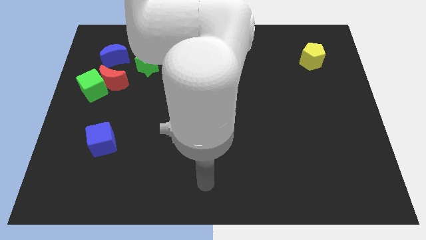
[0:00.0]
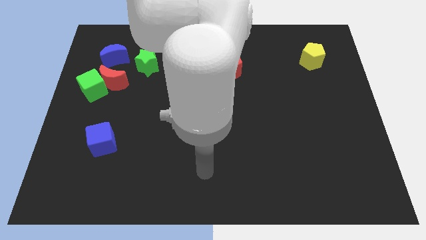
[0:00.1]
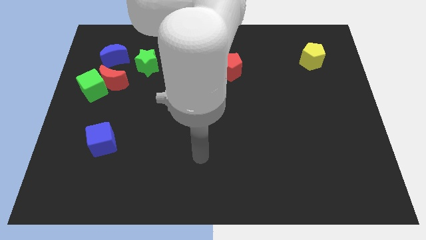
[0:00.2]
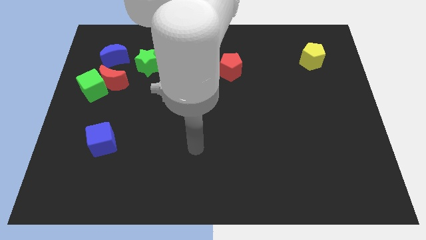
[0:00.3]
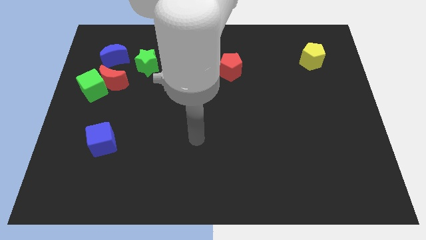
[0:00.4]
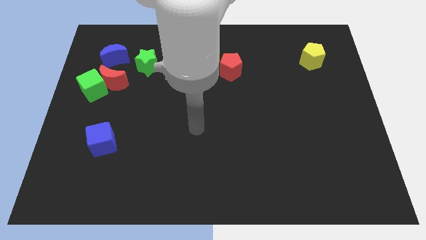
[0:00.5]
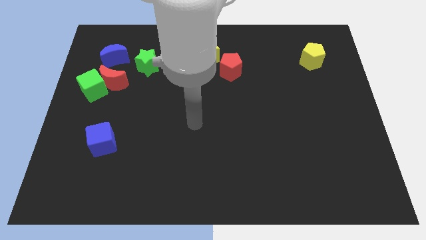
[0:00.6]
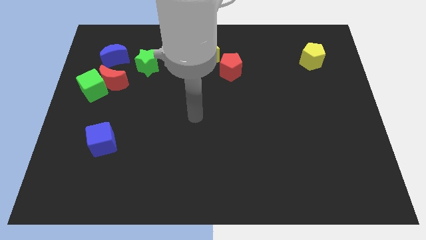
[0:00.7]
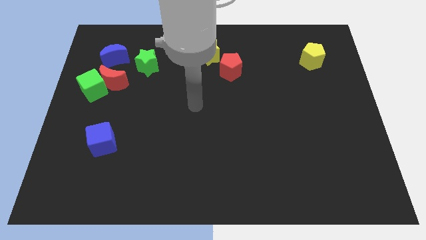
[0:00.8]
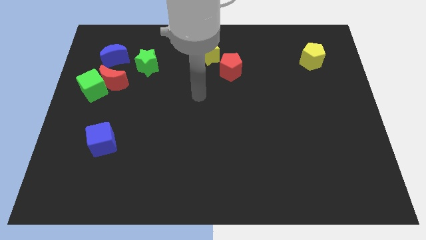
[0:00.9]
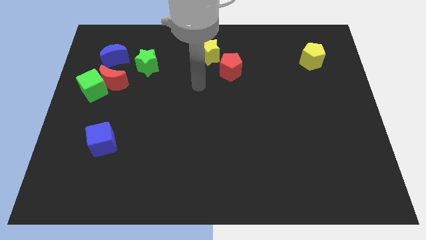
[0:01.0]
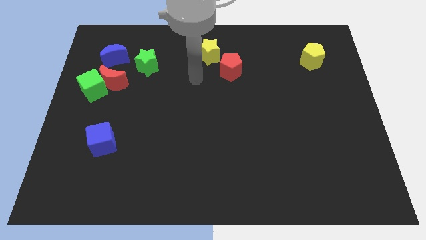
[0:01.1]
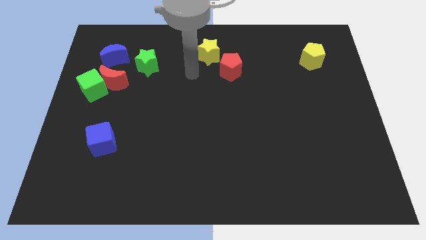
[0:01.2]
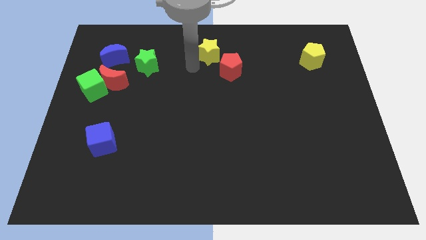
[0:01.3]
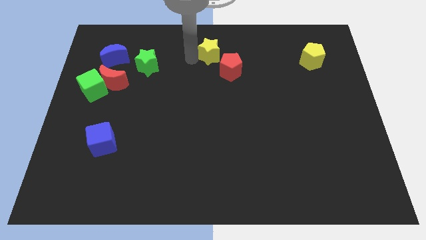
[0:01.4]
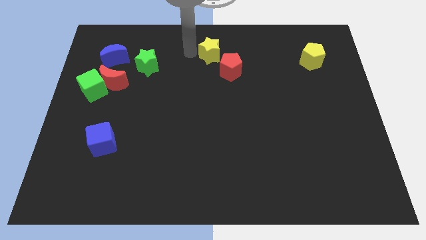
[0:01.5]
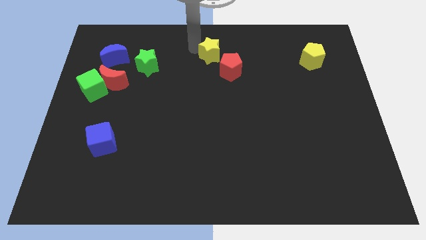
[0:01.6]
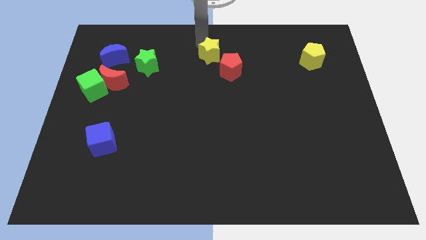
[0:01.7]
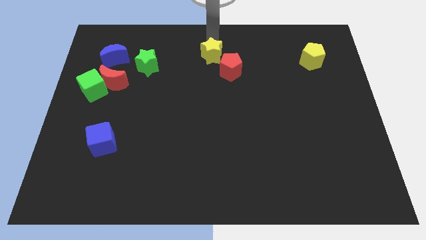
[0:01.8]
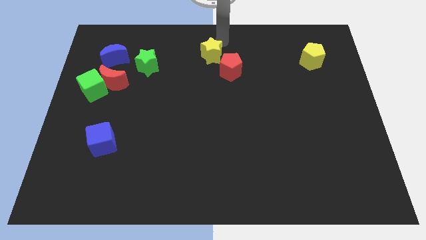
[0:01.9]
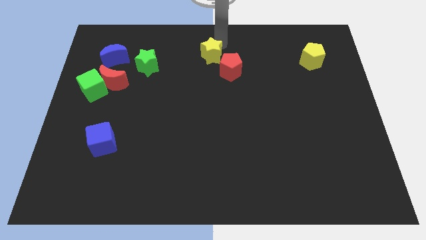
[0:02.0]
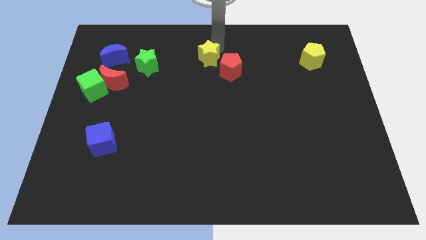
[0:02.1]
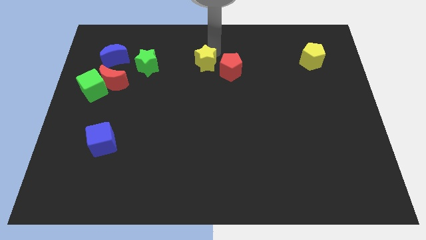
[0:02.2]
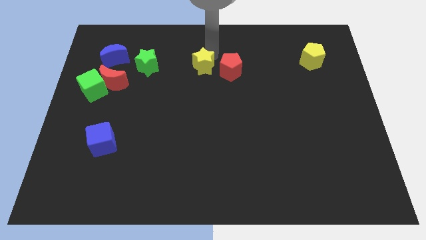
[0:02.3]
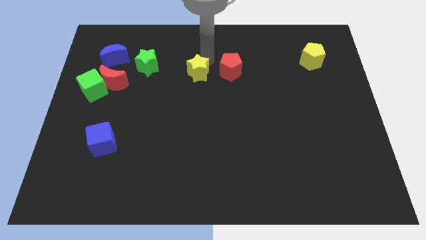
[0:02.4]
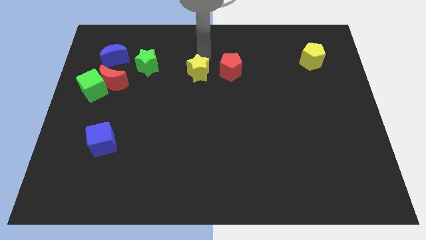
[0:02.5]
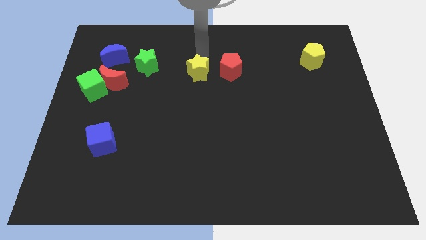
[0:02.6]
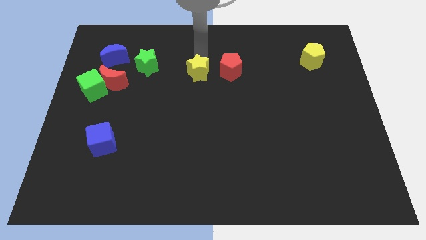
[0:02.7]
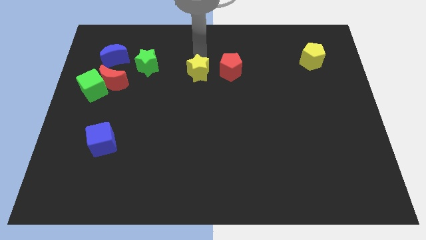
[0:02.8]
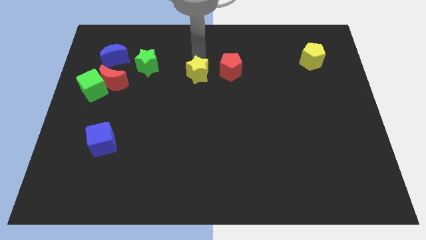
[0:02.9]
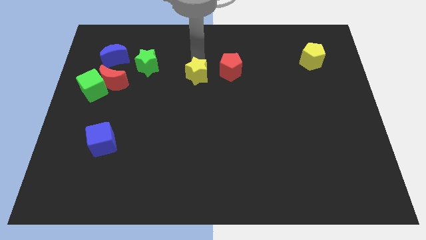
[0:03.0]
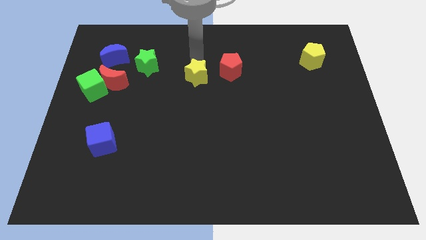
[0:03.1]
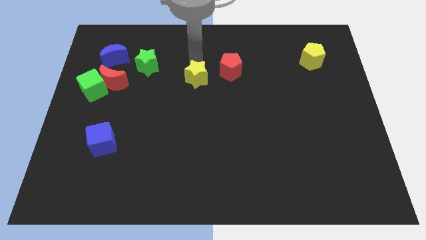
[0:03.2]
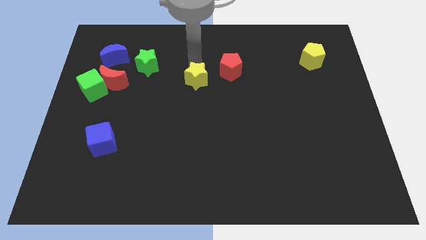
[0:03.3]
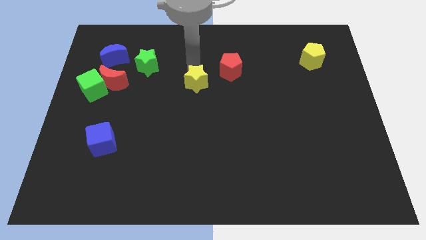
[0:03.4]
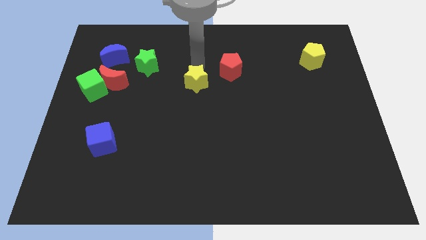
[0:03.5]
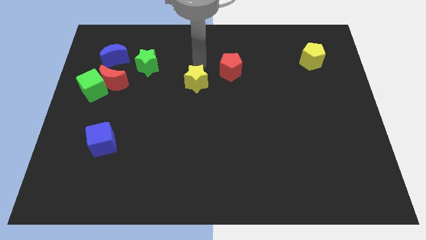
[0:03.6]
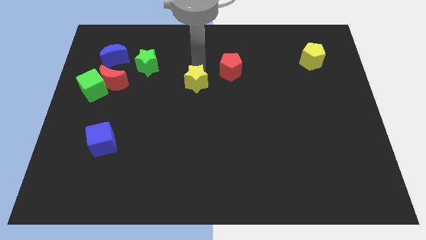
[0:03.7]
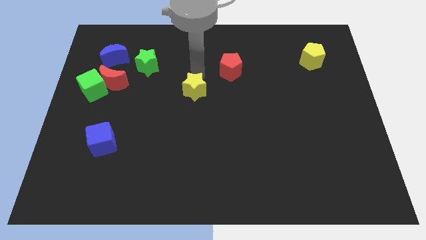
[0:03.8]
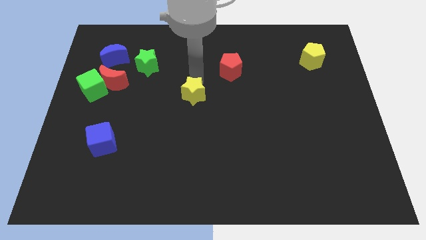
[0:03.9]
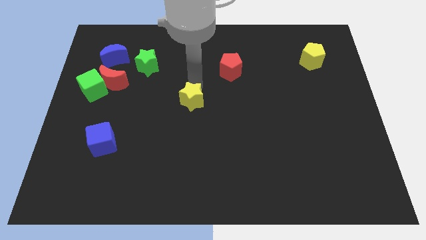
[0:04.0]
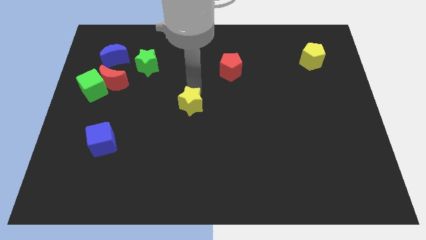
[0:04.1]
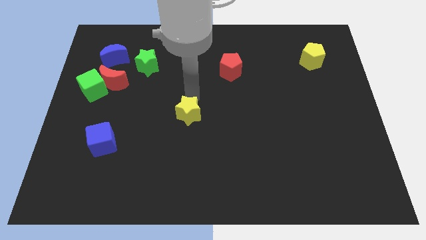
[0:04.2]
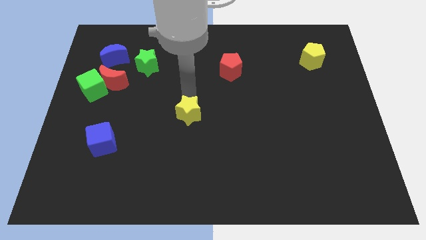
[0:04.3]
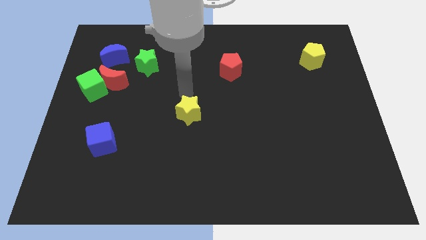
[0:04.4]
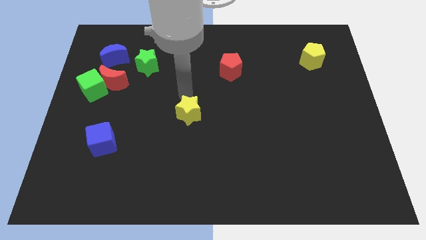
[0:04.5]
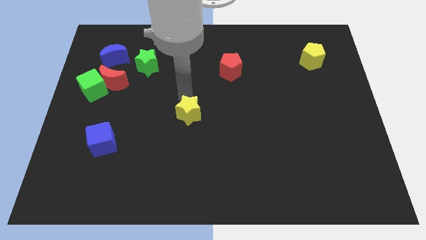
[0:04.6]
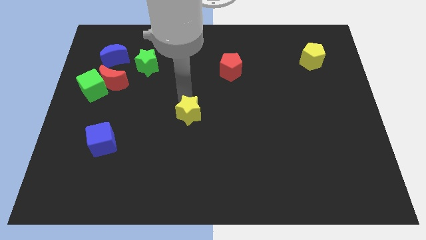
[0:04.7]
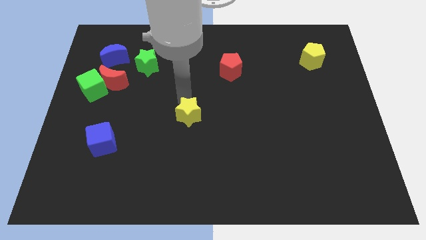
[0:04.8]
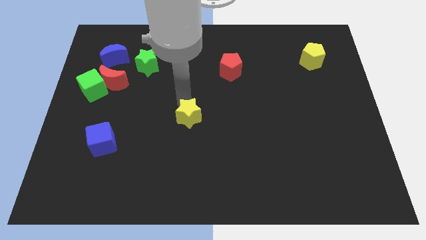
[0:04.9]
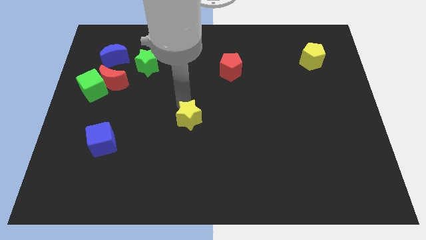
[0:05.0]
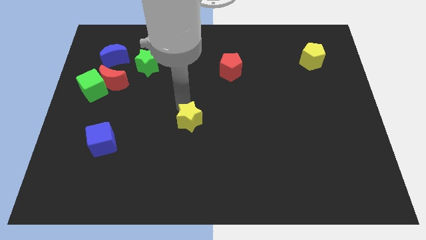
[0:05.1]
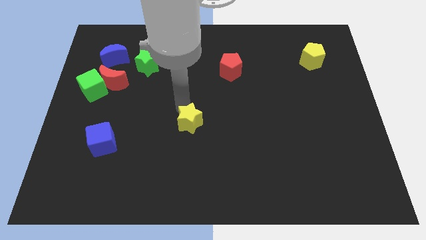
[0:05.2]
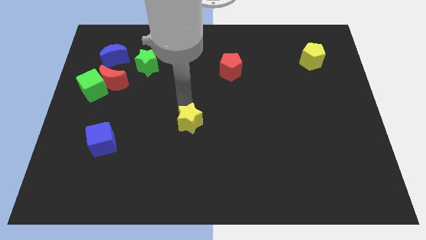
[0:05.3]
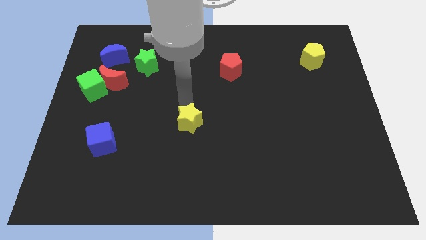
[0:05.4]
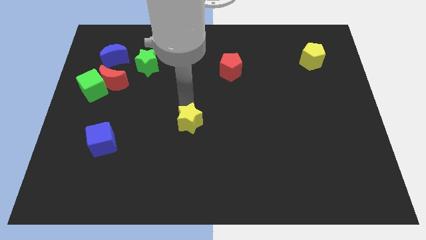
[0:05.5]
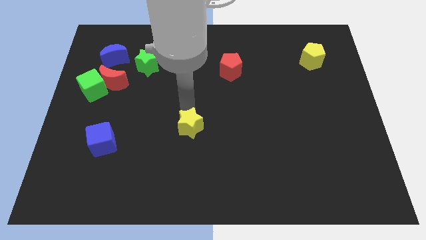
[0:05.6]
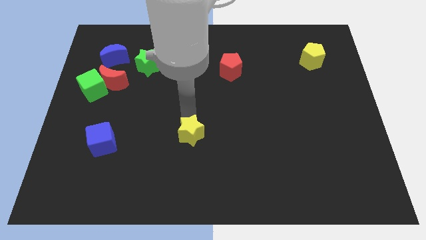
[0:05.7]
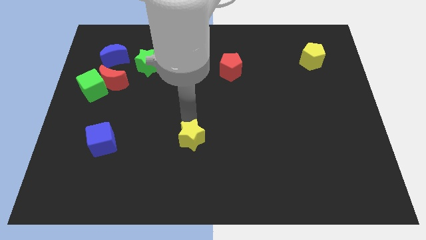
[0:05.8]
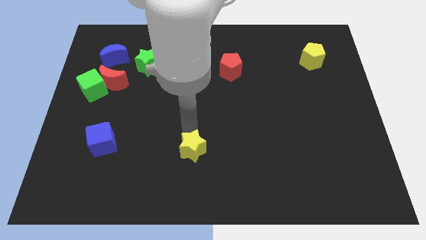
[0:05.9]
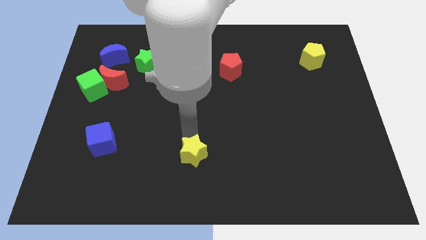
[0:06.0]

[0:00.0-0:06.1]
put the yellow star to the bottom
